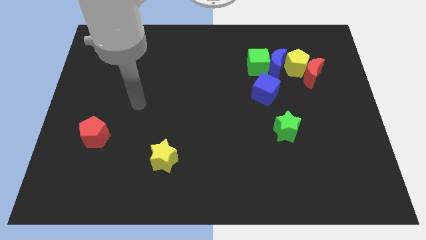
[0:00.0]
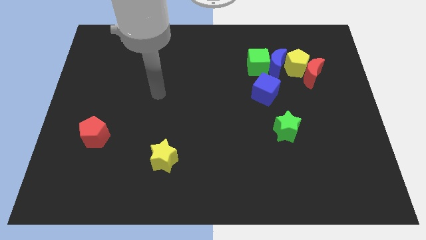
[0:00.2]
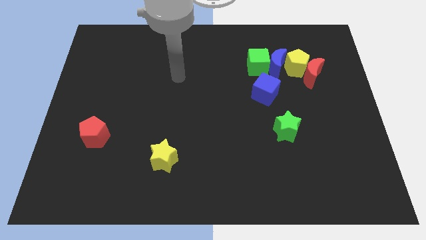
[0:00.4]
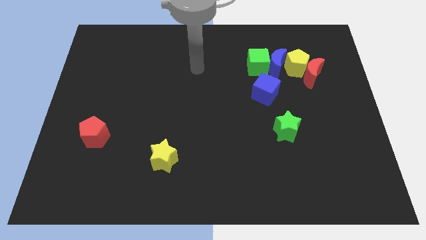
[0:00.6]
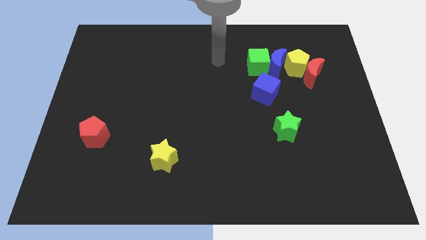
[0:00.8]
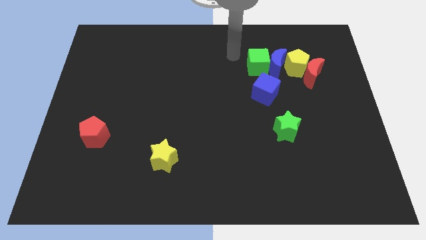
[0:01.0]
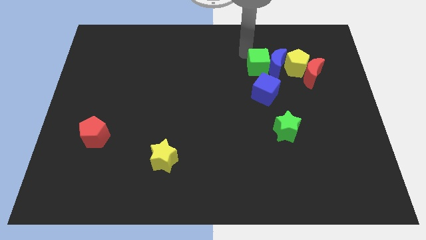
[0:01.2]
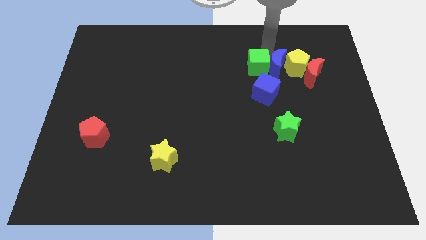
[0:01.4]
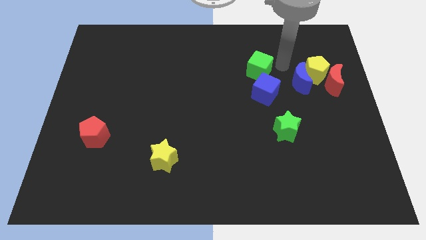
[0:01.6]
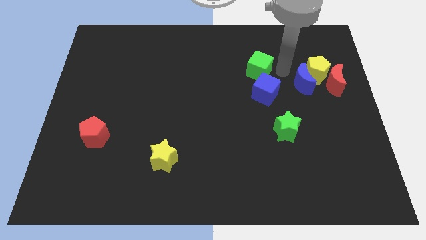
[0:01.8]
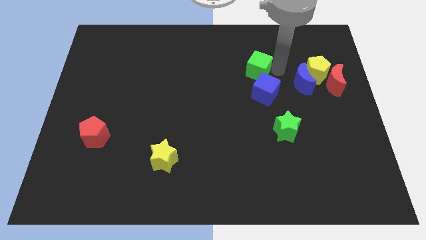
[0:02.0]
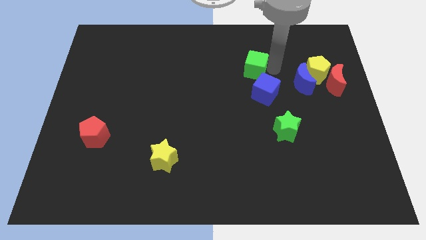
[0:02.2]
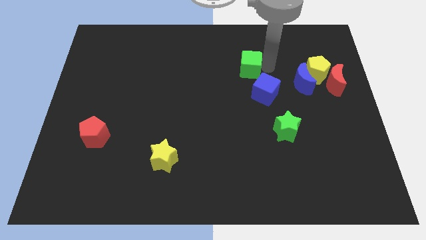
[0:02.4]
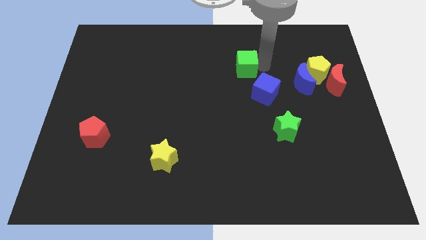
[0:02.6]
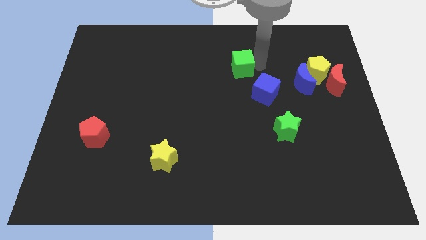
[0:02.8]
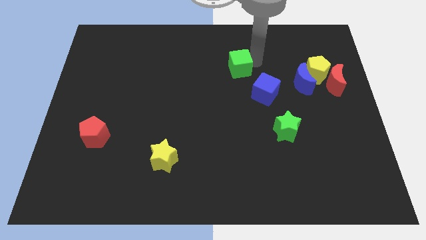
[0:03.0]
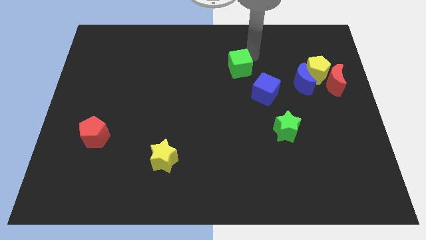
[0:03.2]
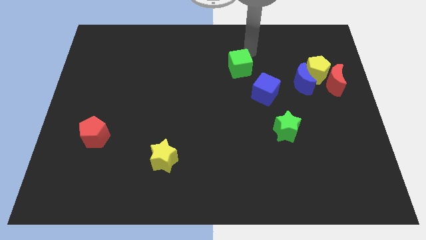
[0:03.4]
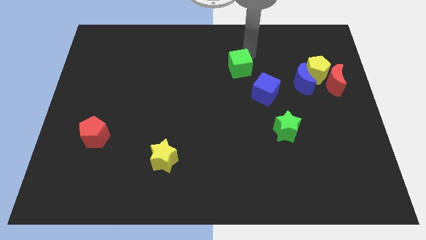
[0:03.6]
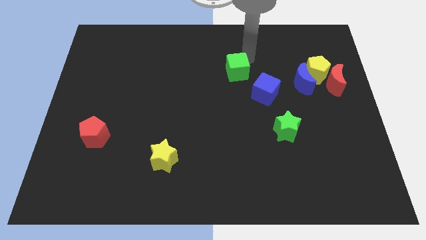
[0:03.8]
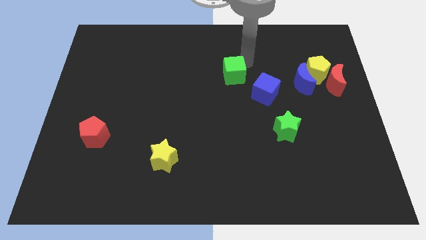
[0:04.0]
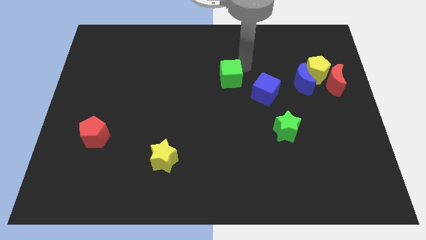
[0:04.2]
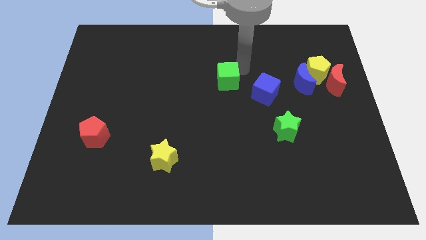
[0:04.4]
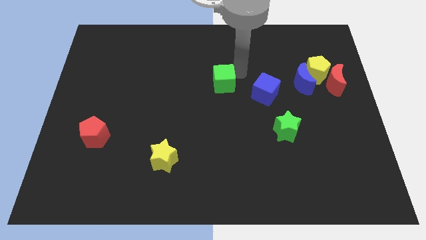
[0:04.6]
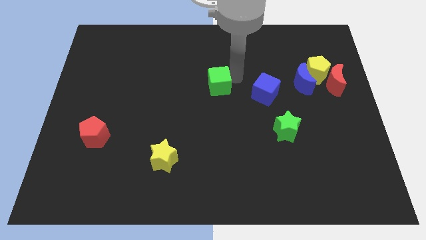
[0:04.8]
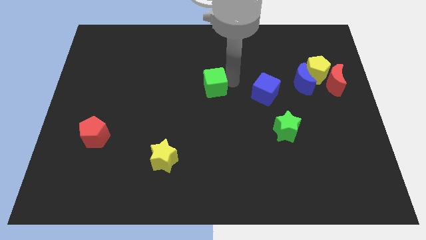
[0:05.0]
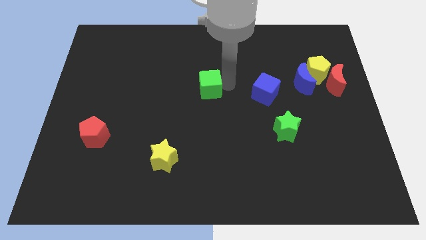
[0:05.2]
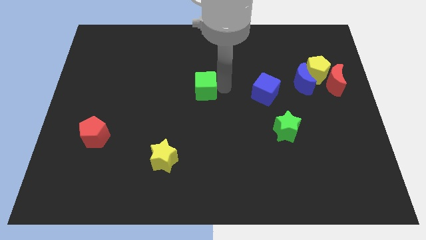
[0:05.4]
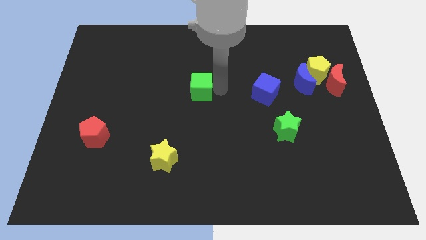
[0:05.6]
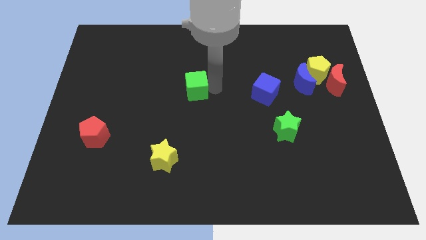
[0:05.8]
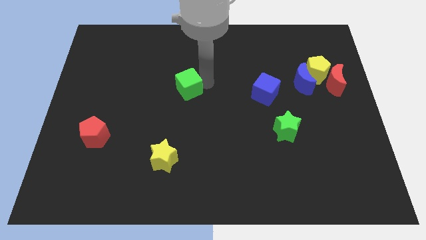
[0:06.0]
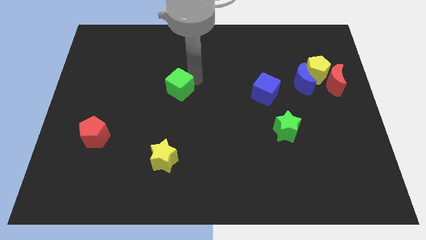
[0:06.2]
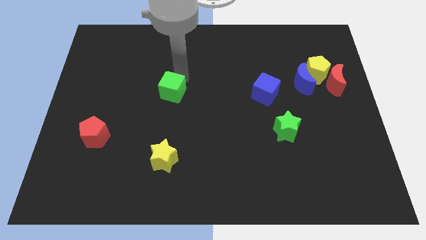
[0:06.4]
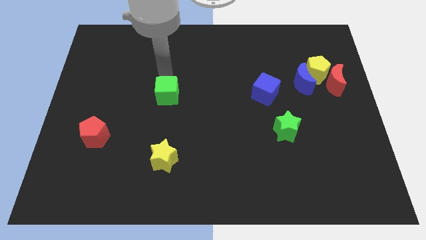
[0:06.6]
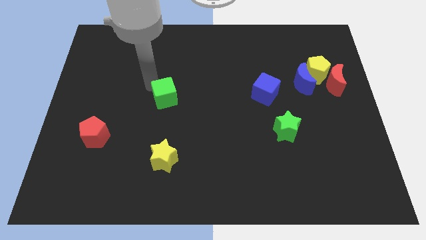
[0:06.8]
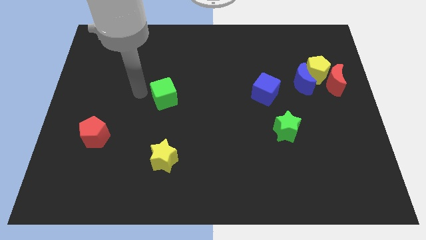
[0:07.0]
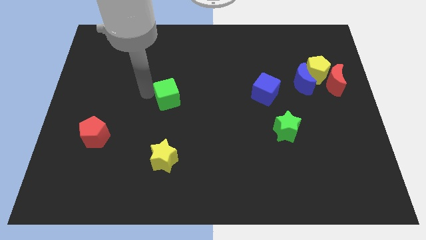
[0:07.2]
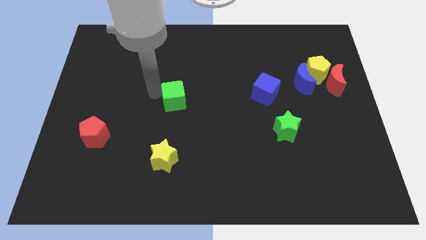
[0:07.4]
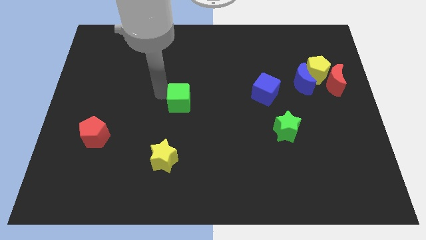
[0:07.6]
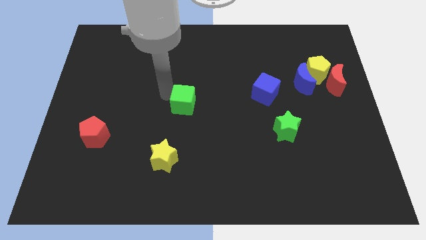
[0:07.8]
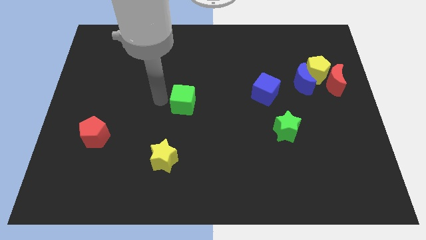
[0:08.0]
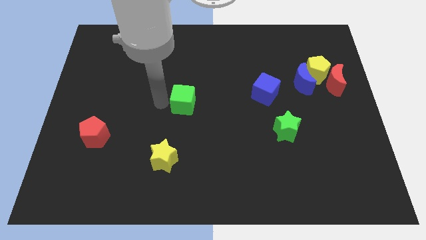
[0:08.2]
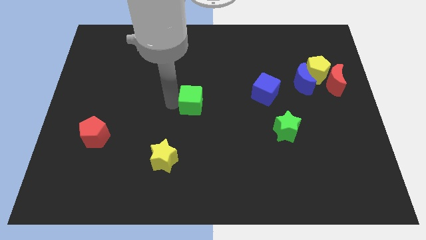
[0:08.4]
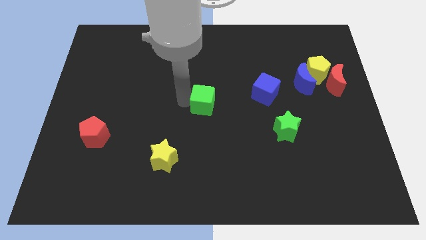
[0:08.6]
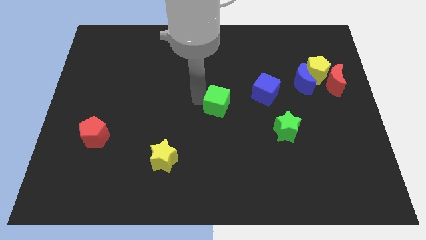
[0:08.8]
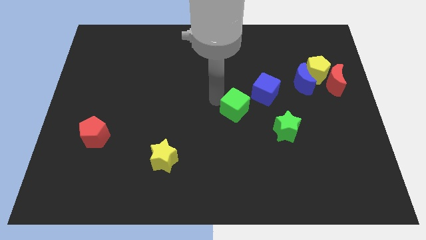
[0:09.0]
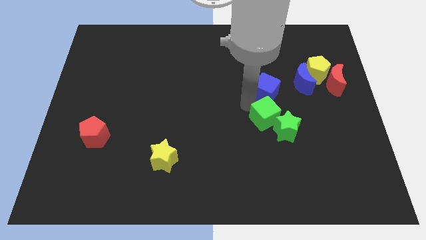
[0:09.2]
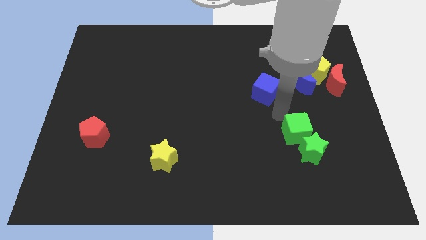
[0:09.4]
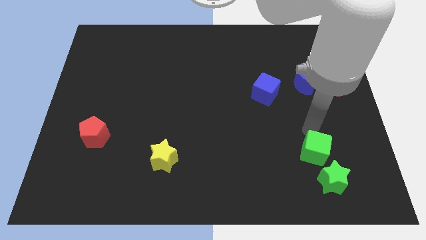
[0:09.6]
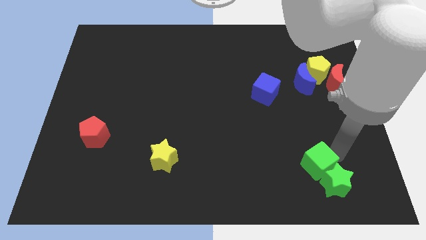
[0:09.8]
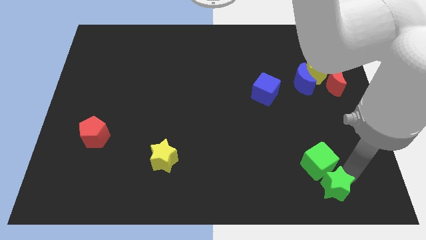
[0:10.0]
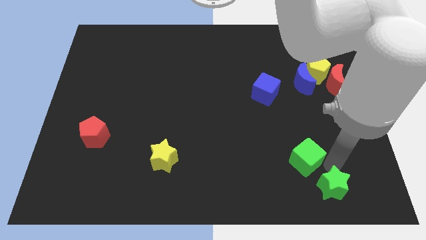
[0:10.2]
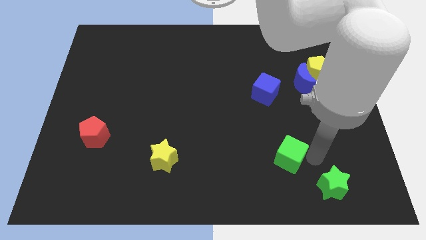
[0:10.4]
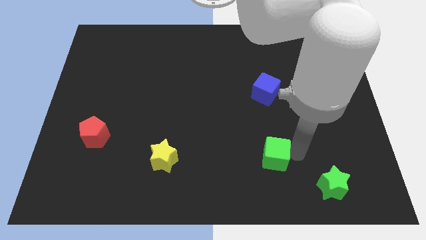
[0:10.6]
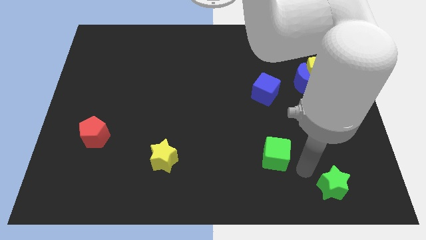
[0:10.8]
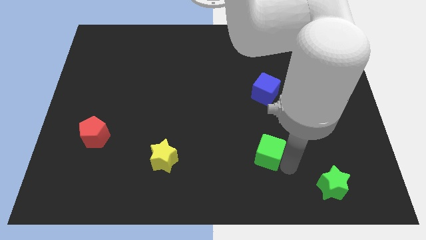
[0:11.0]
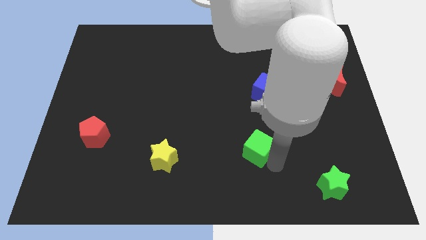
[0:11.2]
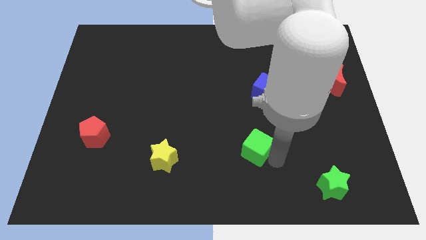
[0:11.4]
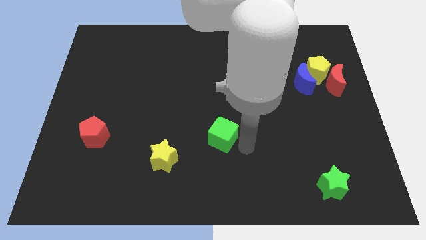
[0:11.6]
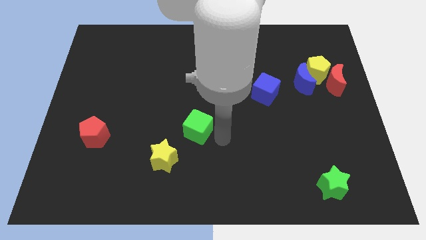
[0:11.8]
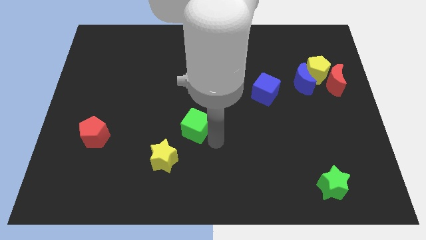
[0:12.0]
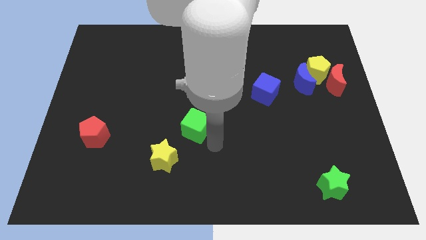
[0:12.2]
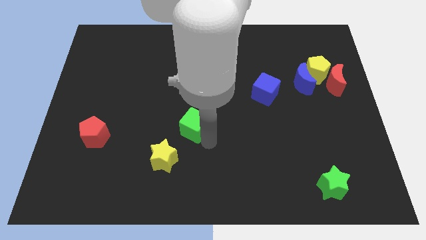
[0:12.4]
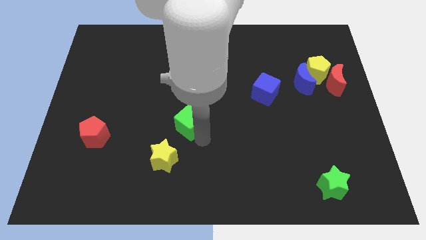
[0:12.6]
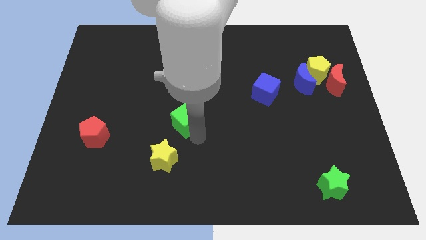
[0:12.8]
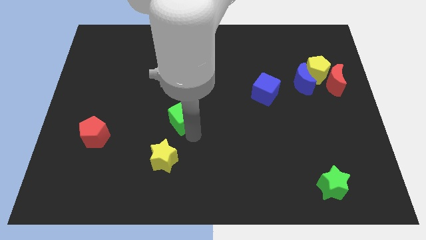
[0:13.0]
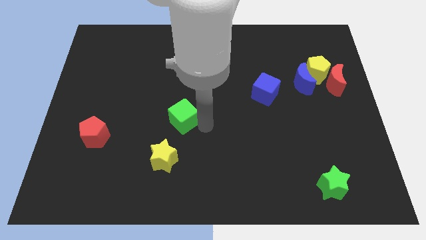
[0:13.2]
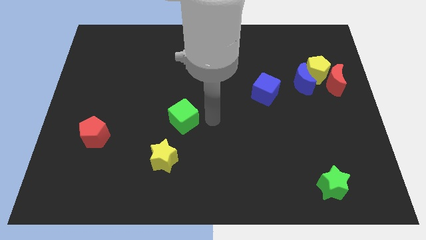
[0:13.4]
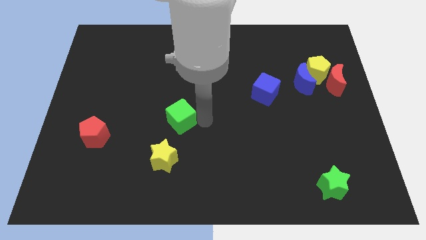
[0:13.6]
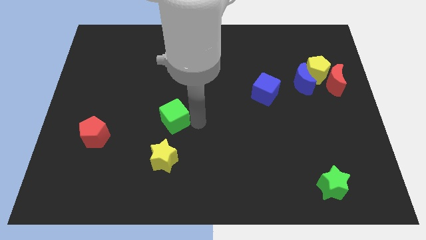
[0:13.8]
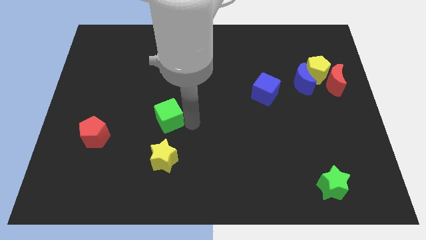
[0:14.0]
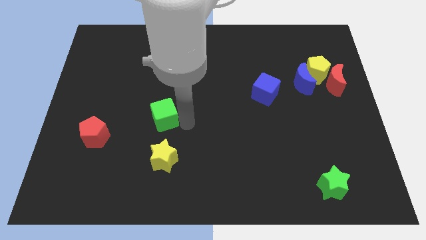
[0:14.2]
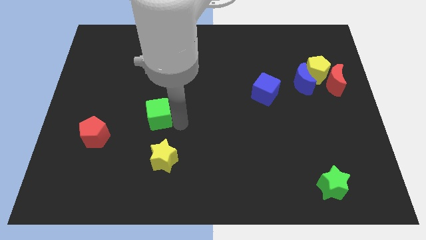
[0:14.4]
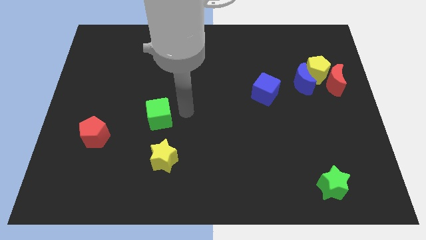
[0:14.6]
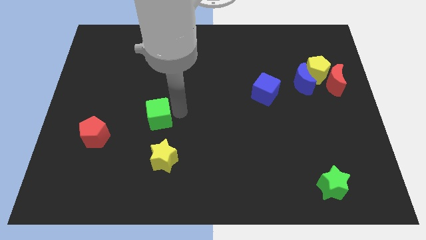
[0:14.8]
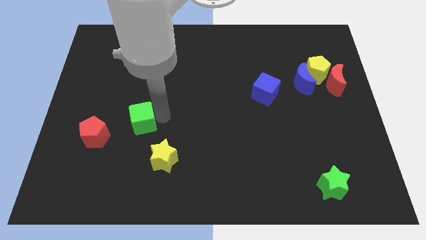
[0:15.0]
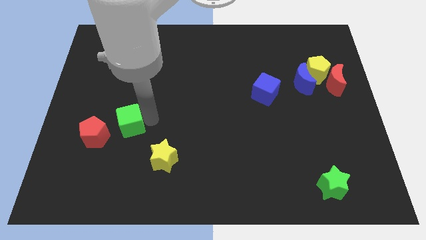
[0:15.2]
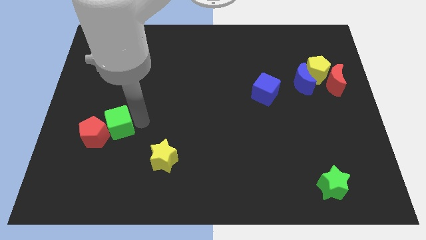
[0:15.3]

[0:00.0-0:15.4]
move the green cube next to the red pentagon
